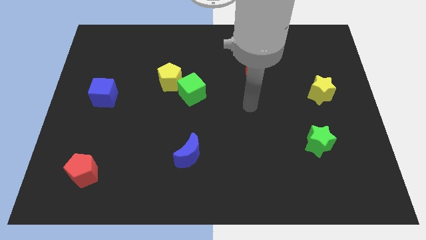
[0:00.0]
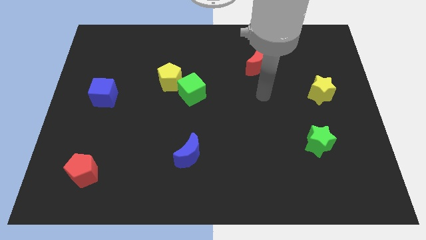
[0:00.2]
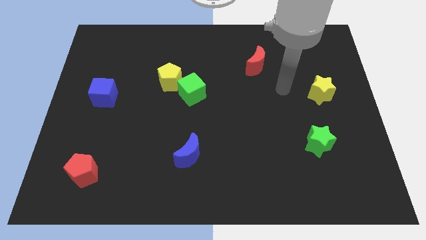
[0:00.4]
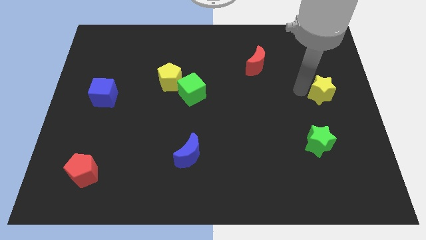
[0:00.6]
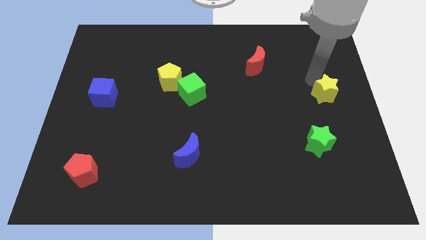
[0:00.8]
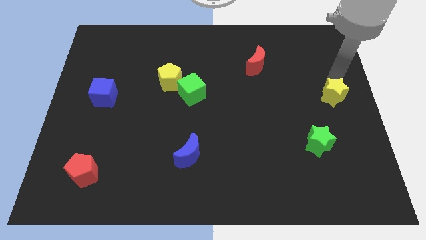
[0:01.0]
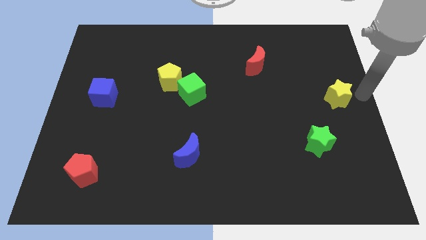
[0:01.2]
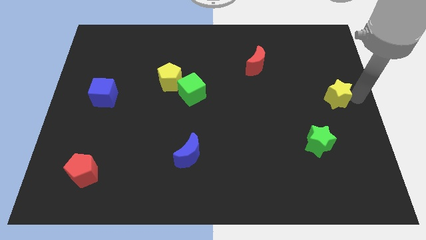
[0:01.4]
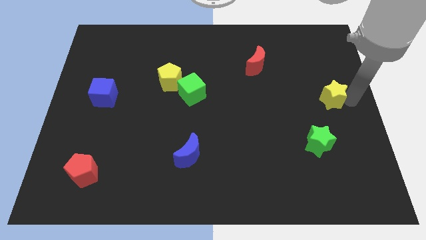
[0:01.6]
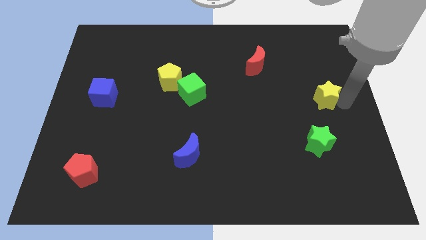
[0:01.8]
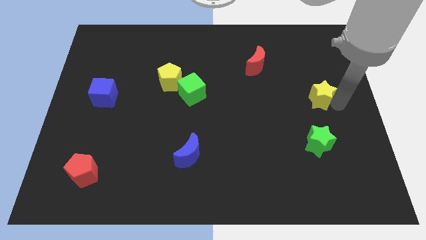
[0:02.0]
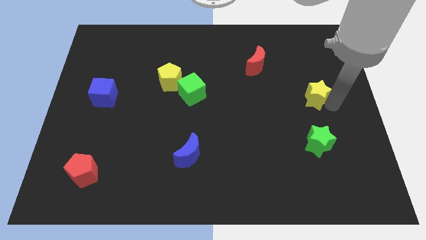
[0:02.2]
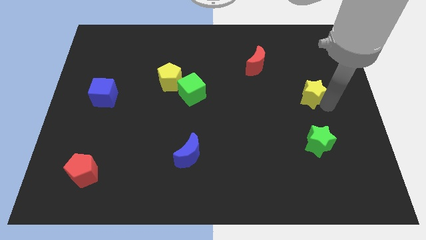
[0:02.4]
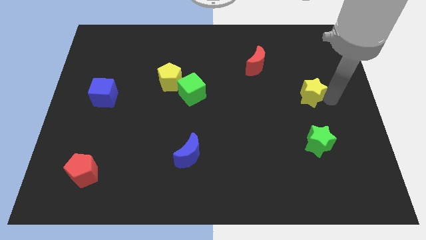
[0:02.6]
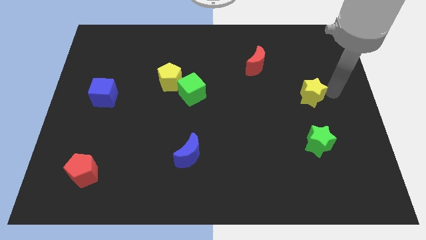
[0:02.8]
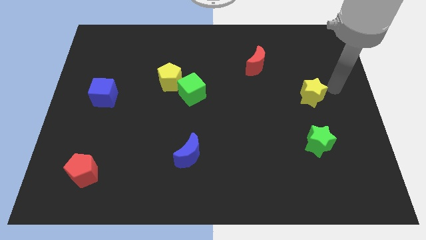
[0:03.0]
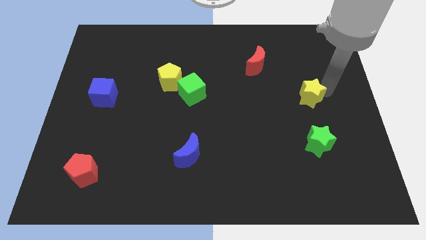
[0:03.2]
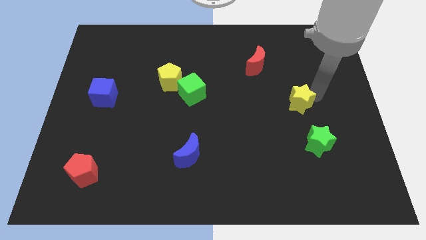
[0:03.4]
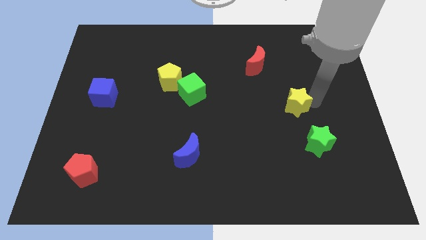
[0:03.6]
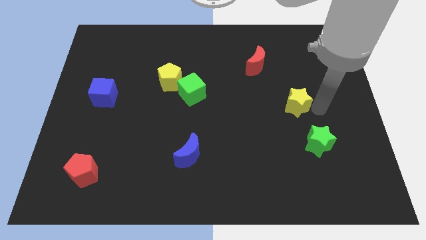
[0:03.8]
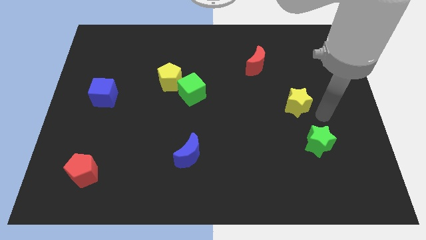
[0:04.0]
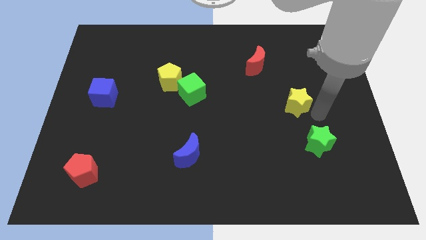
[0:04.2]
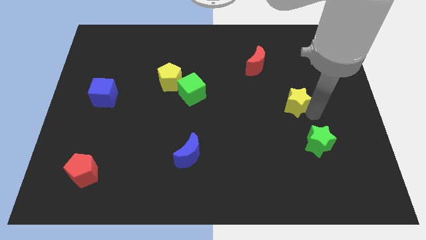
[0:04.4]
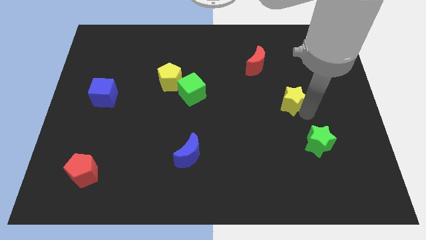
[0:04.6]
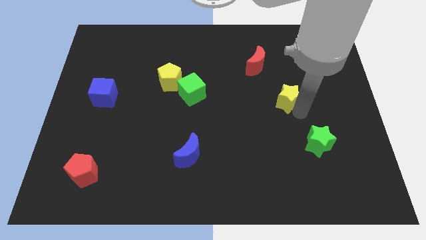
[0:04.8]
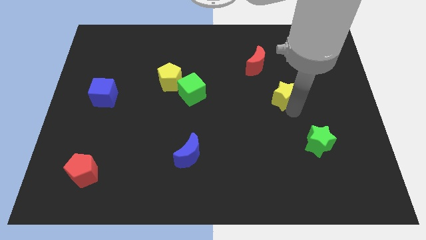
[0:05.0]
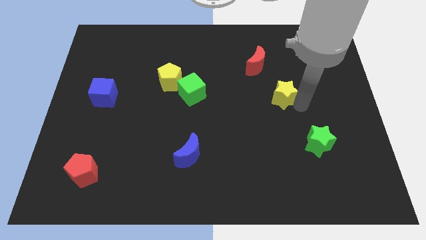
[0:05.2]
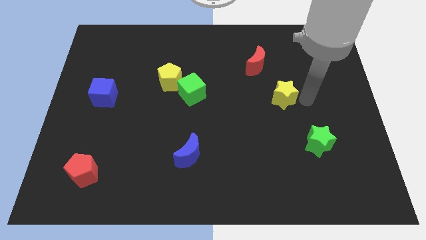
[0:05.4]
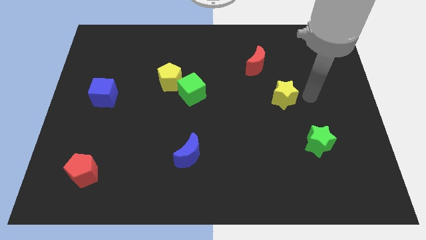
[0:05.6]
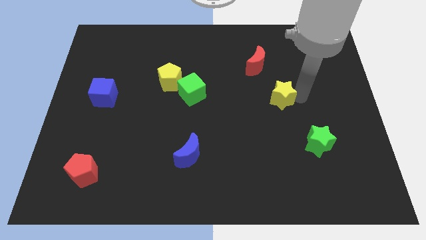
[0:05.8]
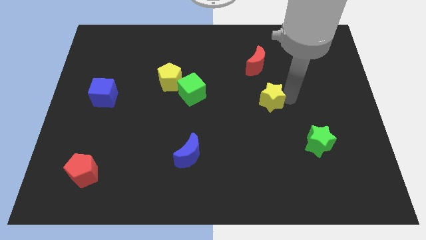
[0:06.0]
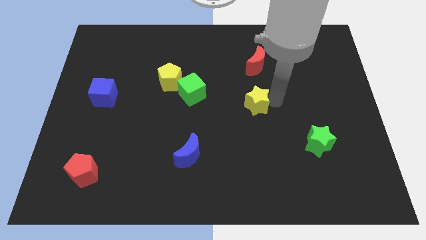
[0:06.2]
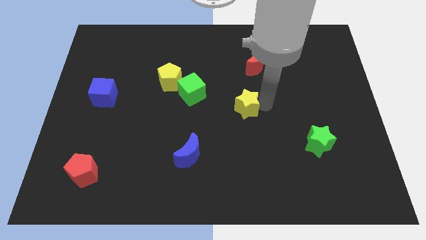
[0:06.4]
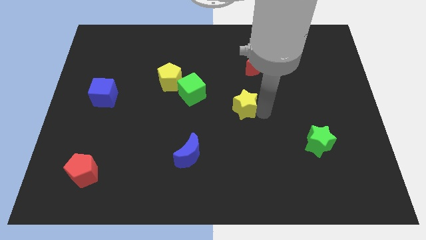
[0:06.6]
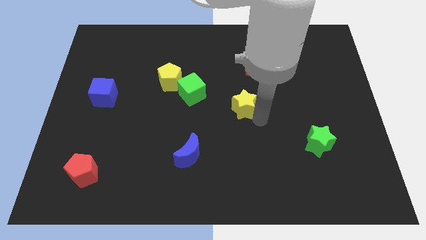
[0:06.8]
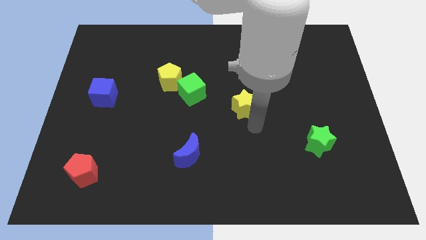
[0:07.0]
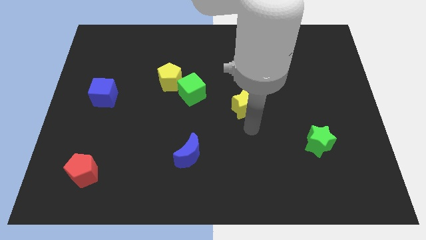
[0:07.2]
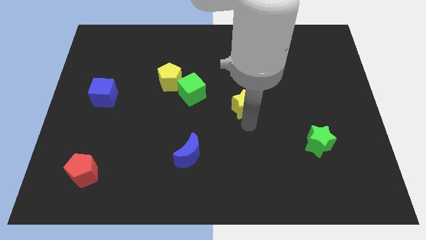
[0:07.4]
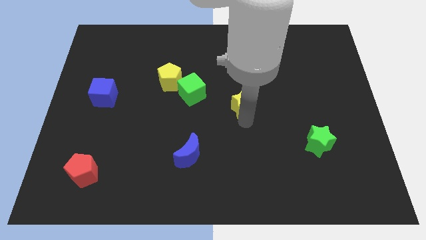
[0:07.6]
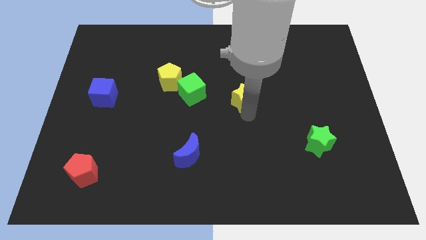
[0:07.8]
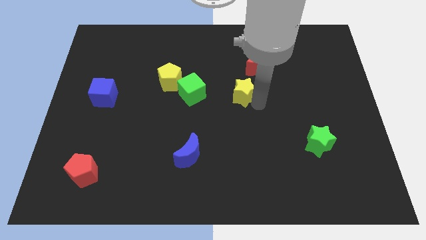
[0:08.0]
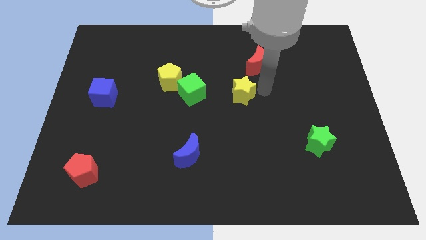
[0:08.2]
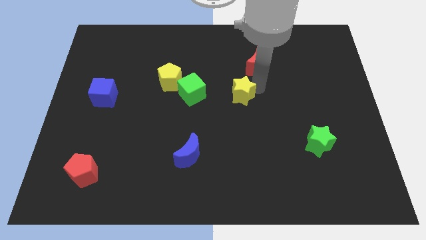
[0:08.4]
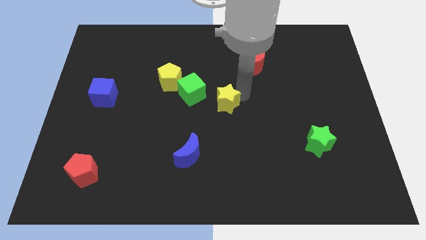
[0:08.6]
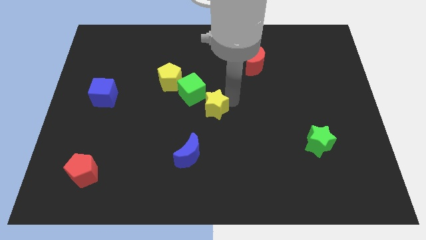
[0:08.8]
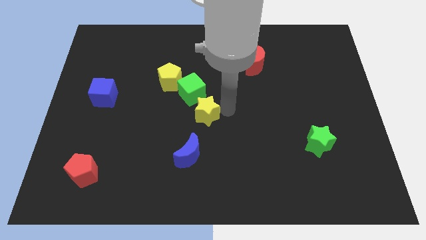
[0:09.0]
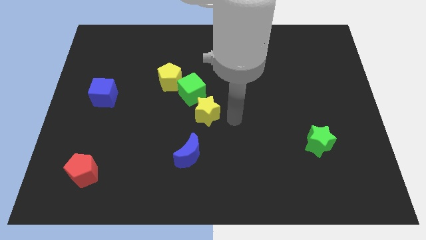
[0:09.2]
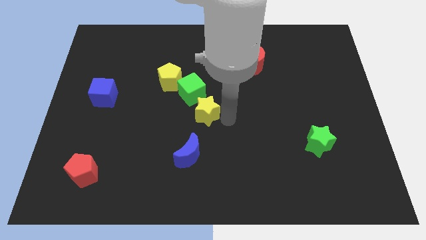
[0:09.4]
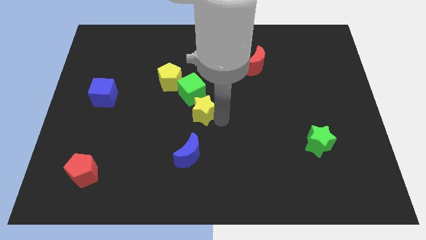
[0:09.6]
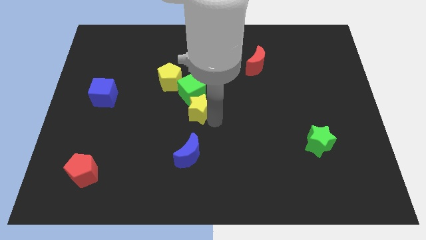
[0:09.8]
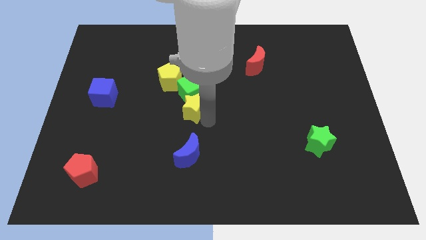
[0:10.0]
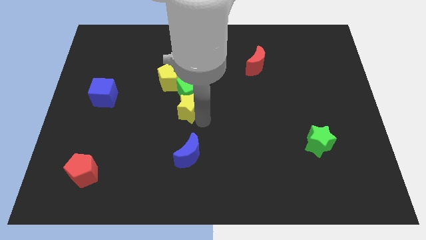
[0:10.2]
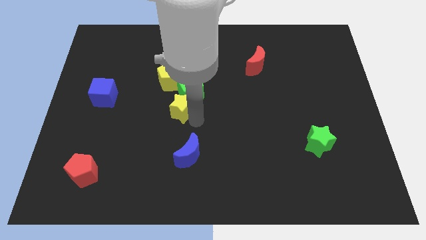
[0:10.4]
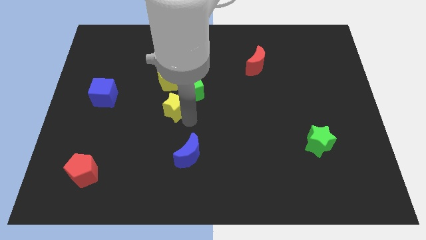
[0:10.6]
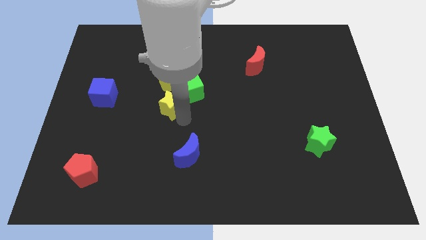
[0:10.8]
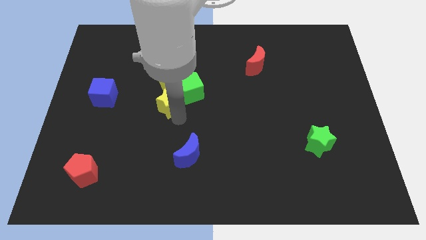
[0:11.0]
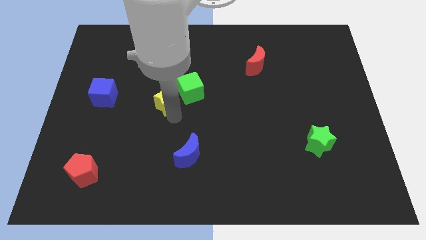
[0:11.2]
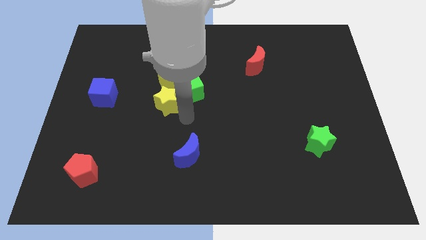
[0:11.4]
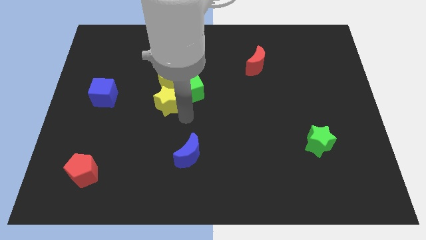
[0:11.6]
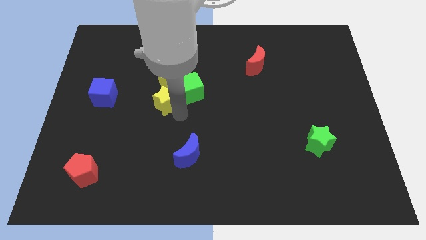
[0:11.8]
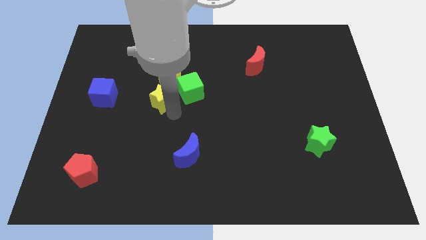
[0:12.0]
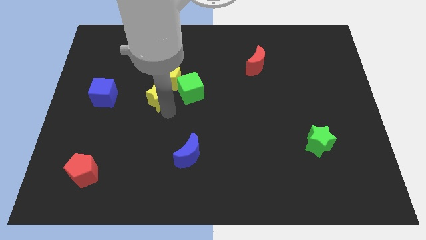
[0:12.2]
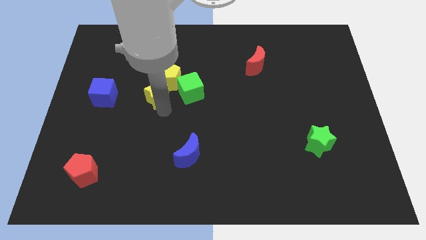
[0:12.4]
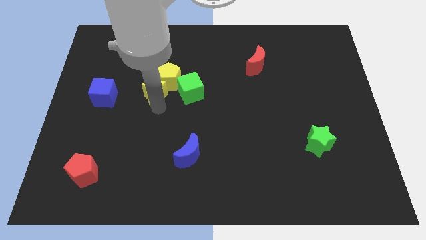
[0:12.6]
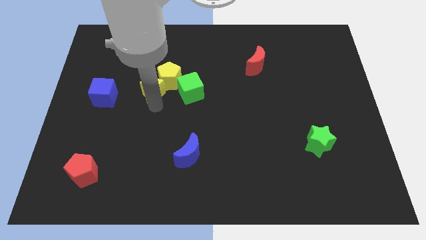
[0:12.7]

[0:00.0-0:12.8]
move the yellow star to the left side of the yellow pentagon

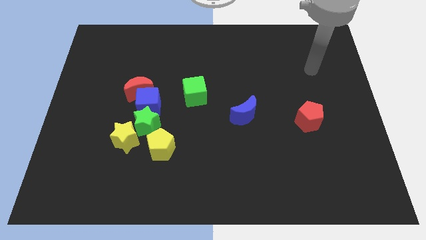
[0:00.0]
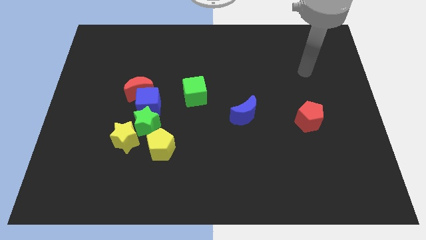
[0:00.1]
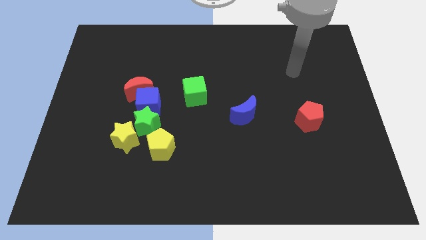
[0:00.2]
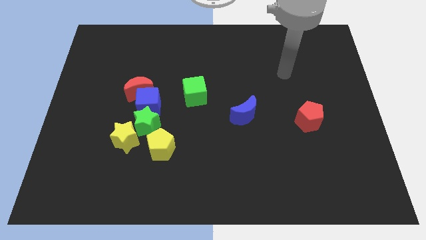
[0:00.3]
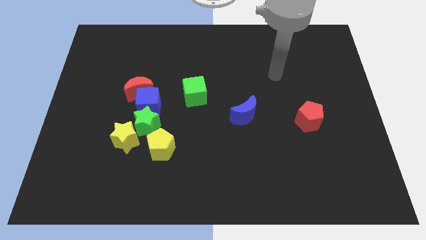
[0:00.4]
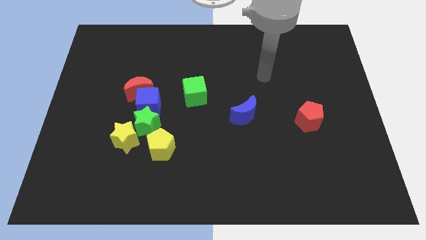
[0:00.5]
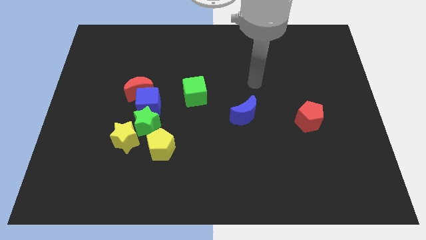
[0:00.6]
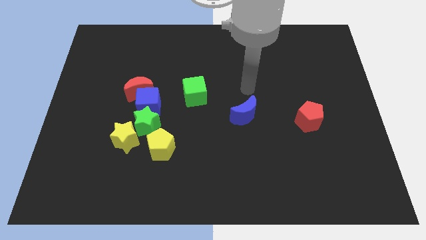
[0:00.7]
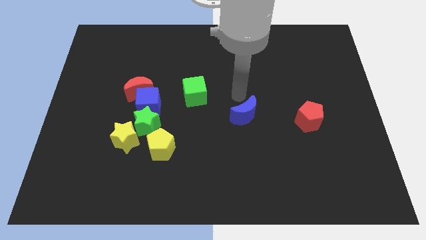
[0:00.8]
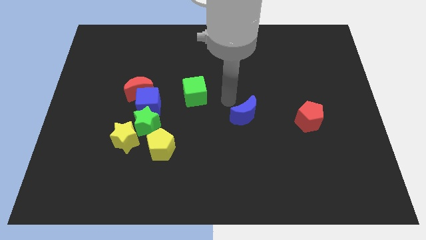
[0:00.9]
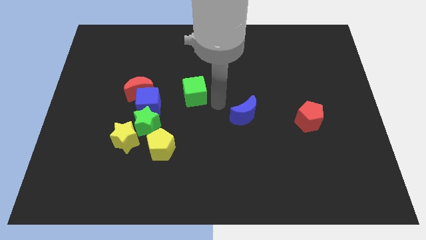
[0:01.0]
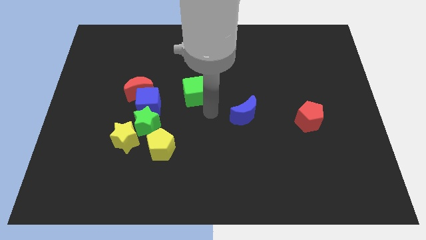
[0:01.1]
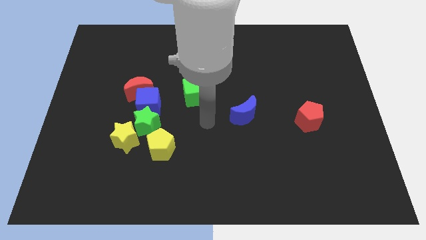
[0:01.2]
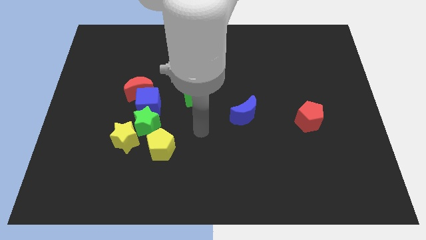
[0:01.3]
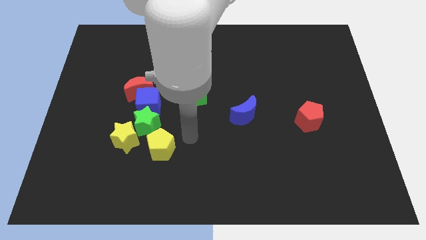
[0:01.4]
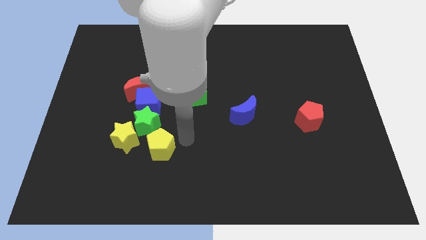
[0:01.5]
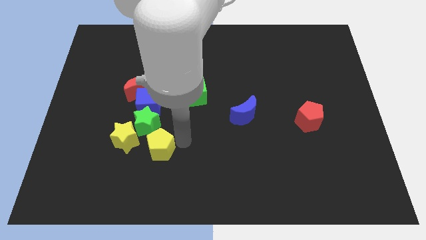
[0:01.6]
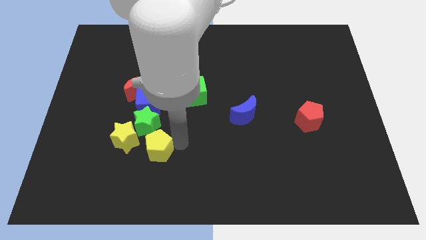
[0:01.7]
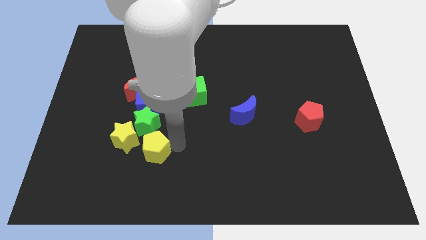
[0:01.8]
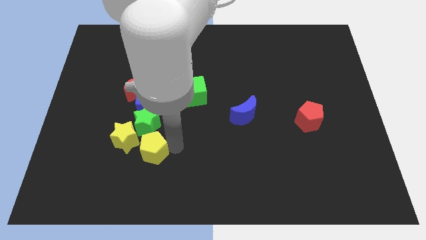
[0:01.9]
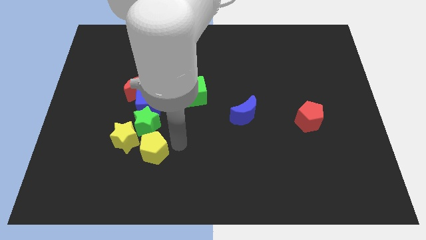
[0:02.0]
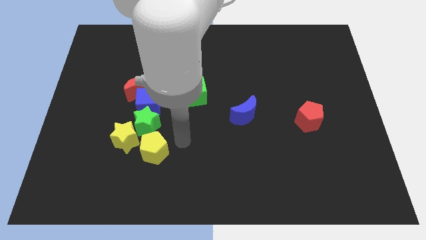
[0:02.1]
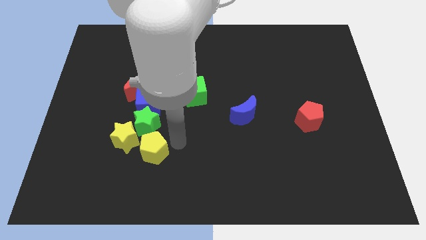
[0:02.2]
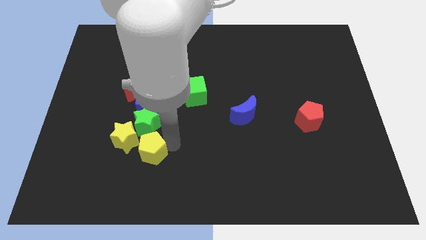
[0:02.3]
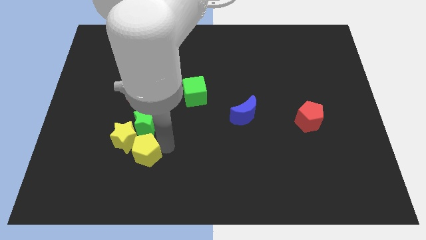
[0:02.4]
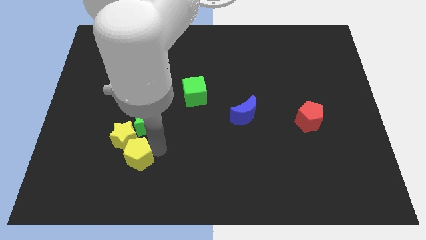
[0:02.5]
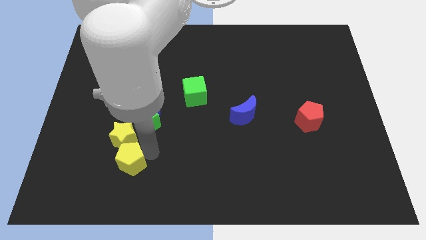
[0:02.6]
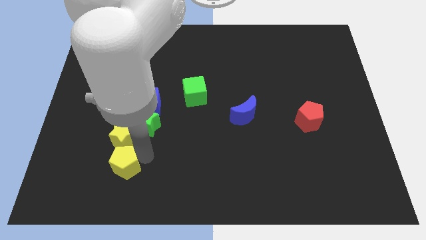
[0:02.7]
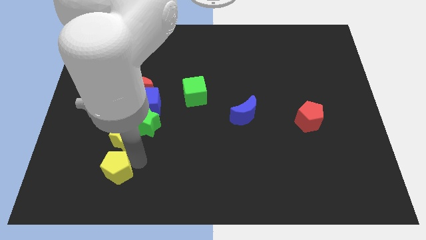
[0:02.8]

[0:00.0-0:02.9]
put the yellow pentagon diagonally down and to the left of the yellow star
